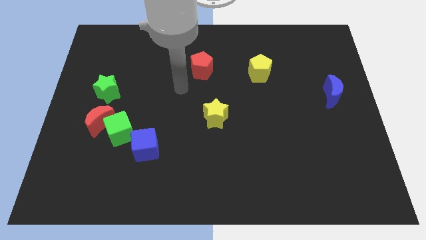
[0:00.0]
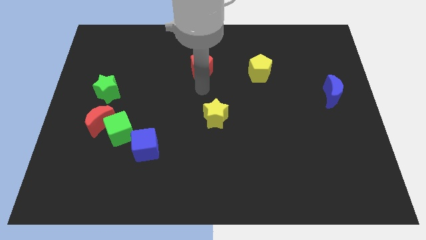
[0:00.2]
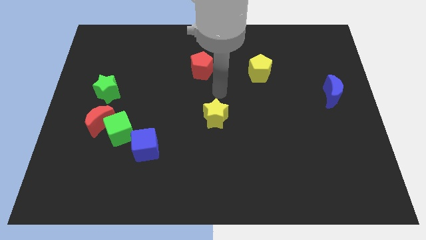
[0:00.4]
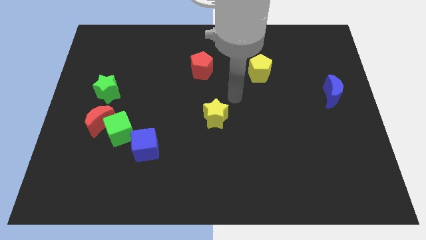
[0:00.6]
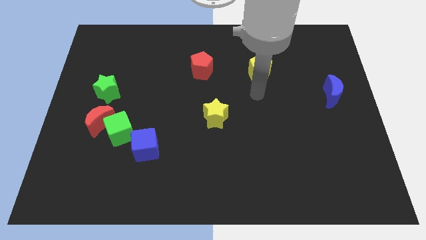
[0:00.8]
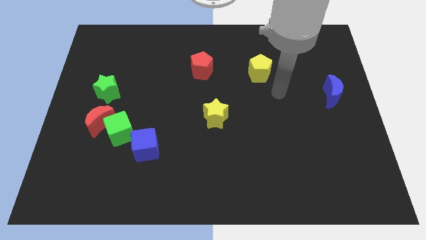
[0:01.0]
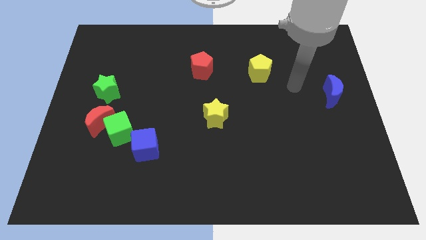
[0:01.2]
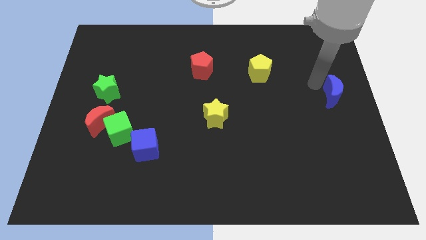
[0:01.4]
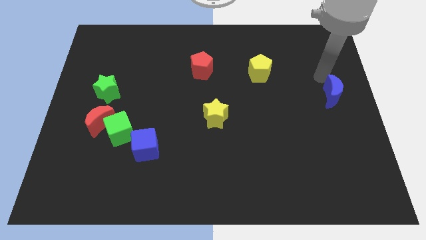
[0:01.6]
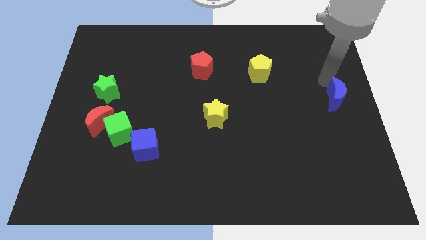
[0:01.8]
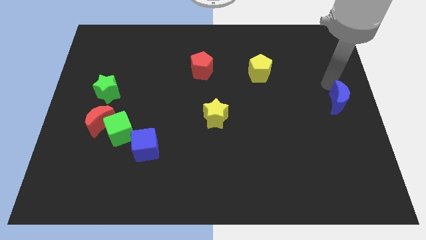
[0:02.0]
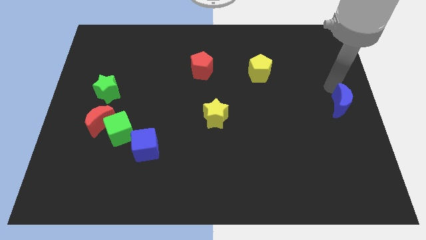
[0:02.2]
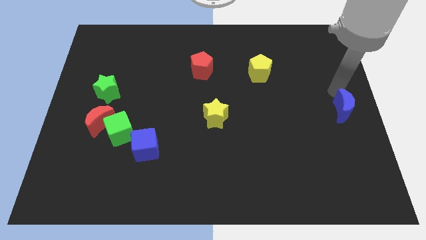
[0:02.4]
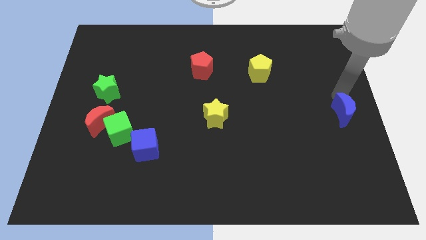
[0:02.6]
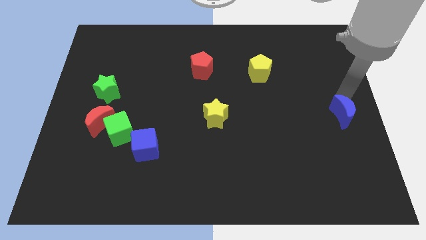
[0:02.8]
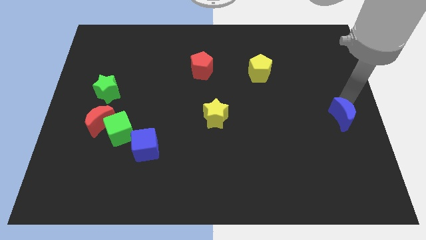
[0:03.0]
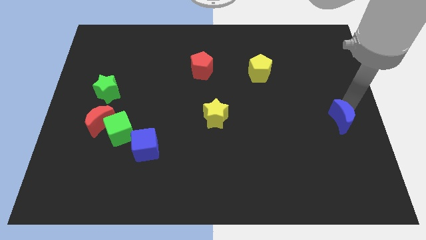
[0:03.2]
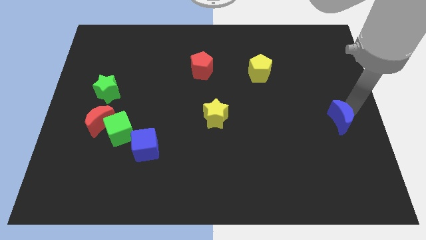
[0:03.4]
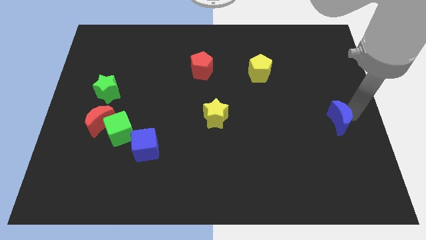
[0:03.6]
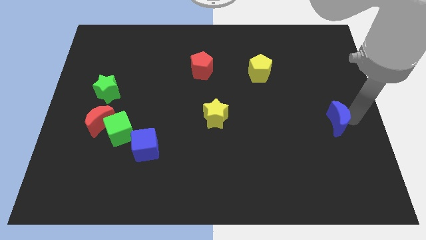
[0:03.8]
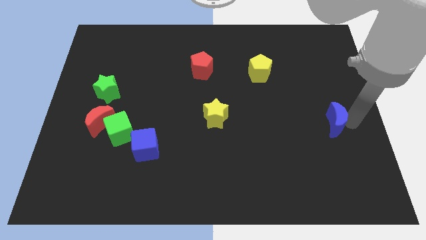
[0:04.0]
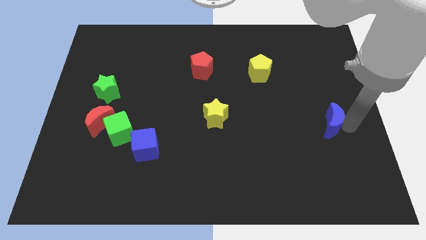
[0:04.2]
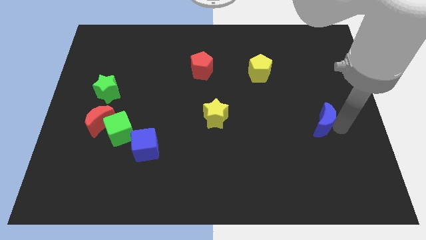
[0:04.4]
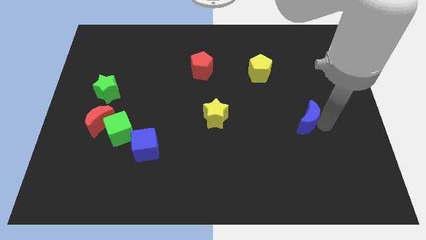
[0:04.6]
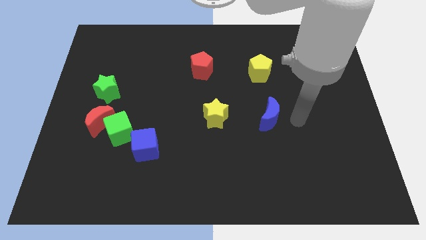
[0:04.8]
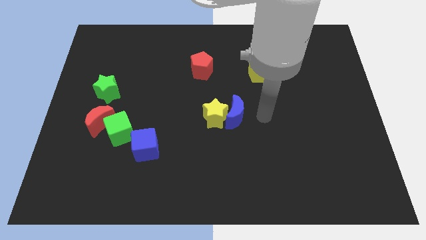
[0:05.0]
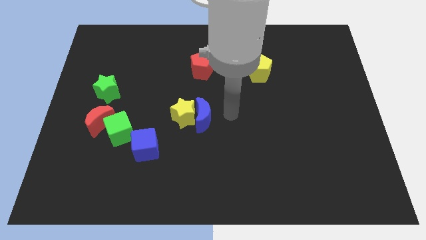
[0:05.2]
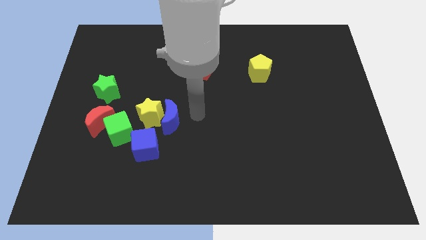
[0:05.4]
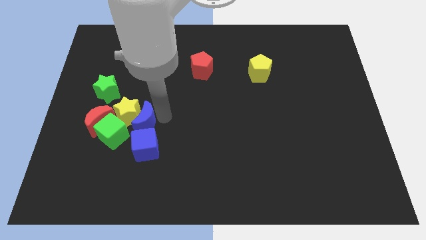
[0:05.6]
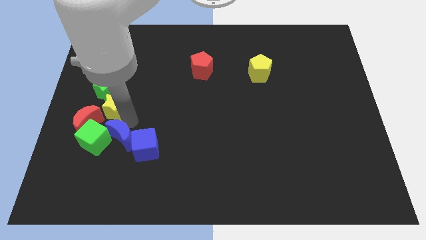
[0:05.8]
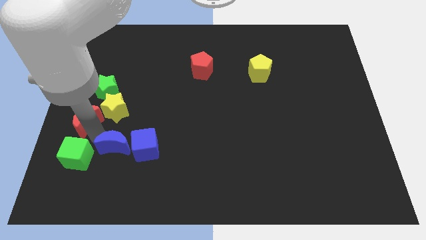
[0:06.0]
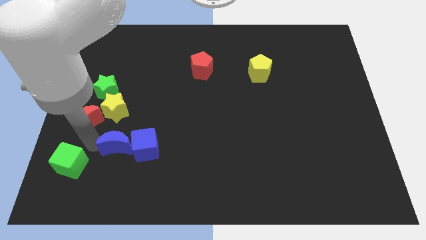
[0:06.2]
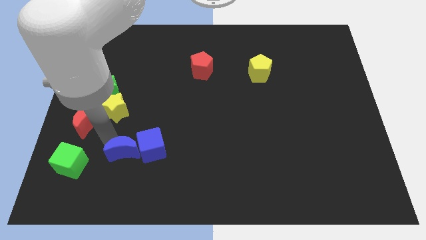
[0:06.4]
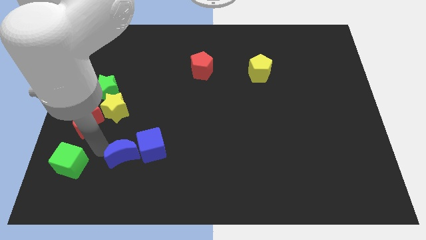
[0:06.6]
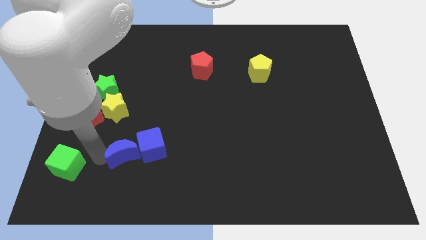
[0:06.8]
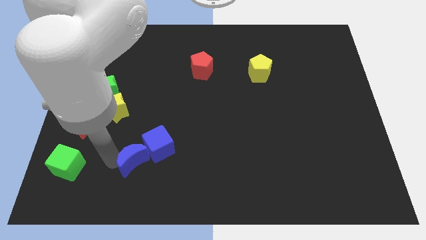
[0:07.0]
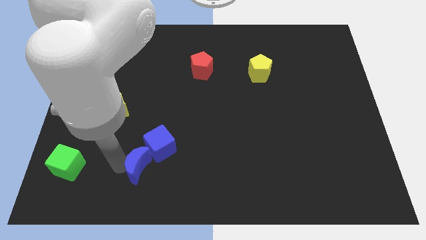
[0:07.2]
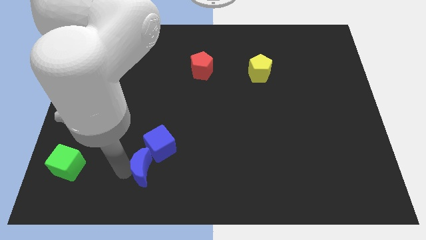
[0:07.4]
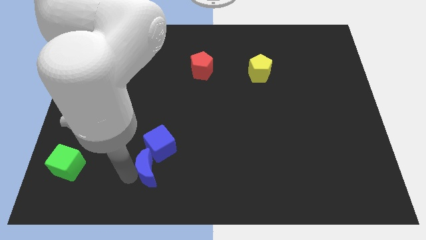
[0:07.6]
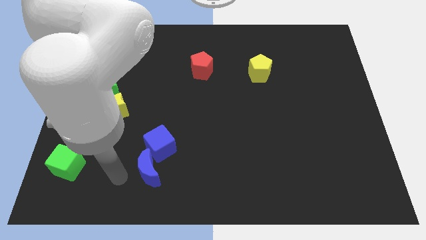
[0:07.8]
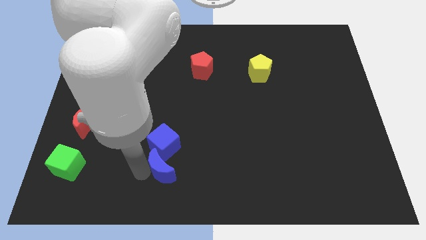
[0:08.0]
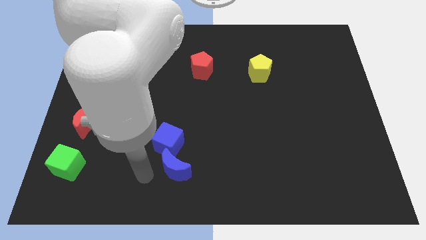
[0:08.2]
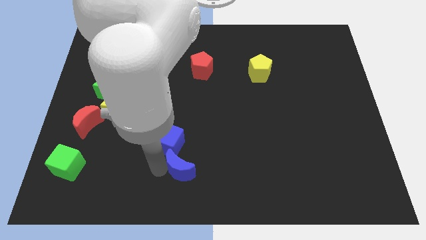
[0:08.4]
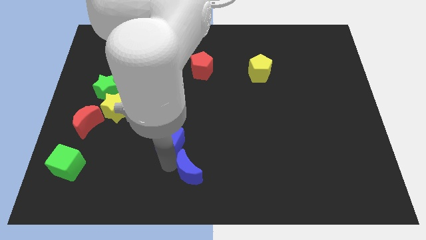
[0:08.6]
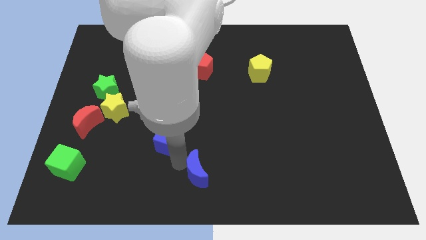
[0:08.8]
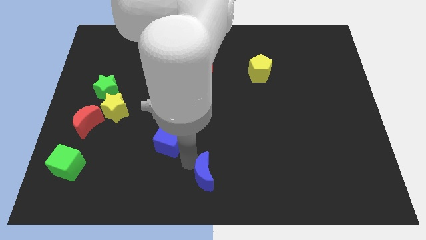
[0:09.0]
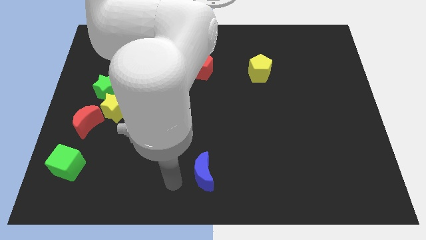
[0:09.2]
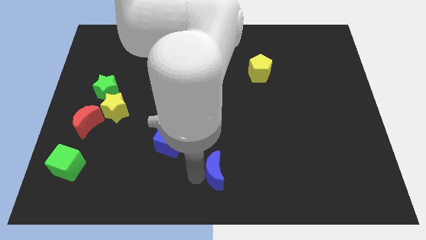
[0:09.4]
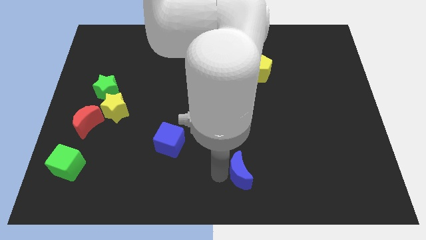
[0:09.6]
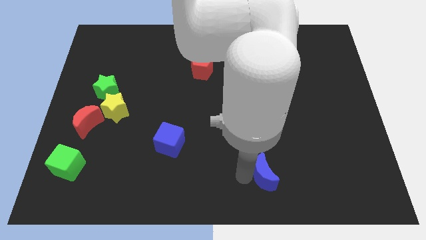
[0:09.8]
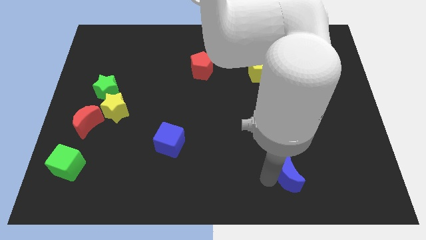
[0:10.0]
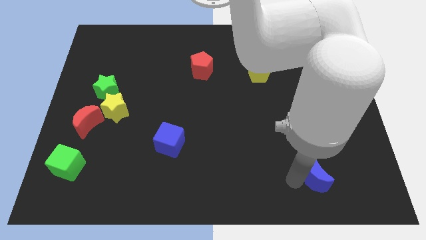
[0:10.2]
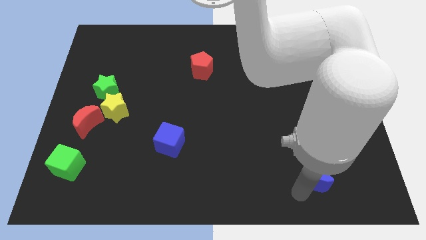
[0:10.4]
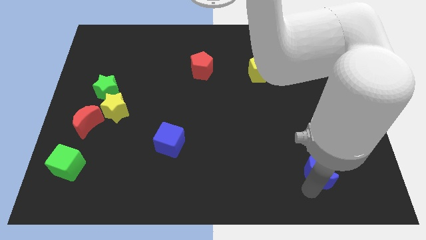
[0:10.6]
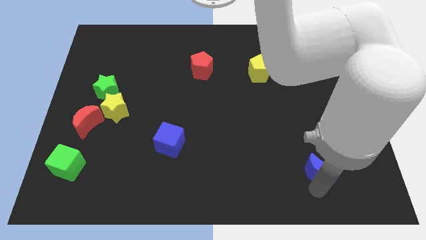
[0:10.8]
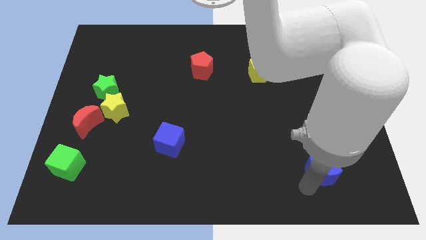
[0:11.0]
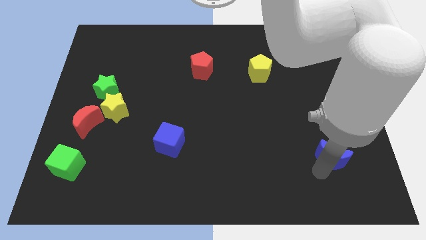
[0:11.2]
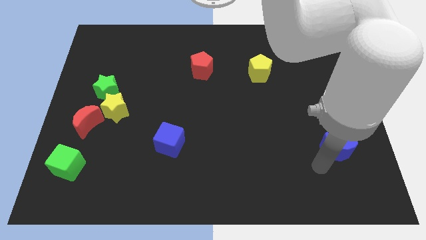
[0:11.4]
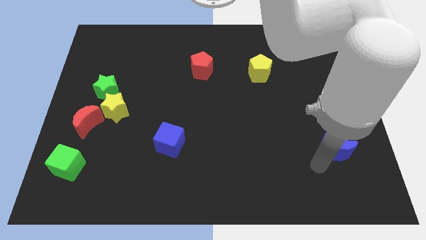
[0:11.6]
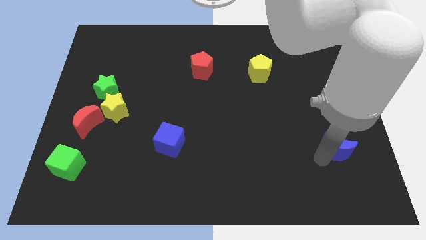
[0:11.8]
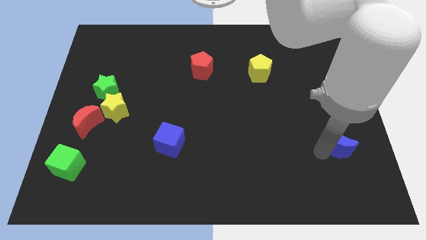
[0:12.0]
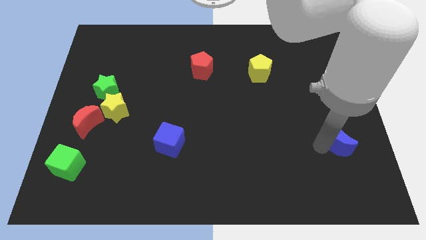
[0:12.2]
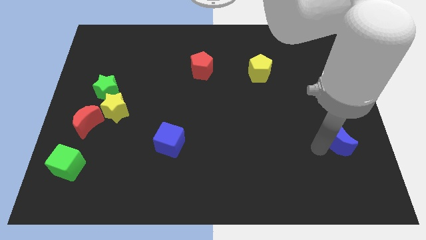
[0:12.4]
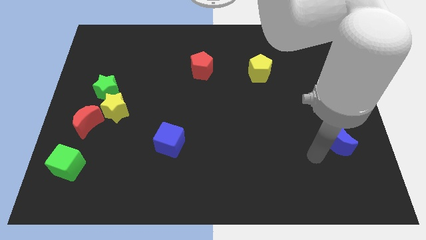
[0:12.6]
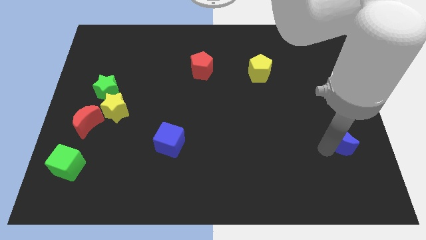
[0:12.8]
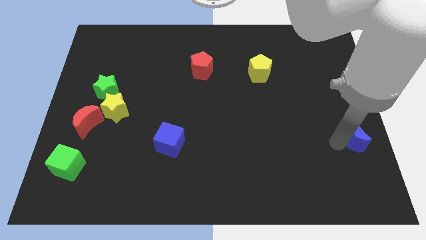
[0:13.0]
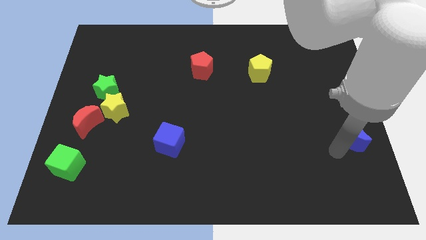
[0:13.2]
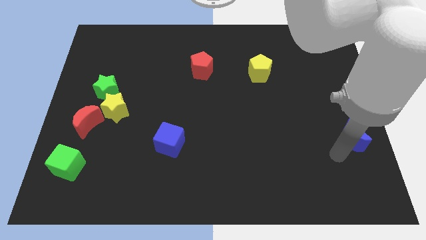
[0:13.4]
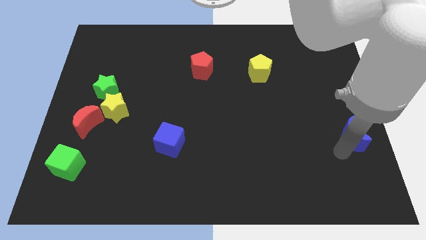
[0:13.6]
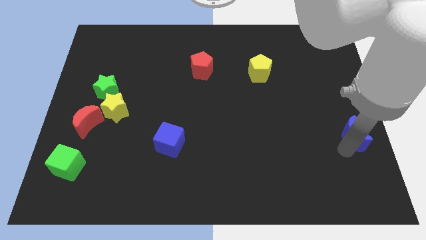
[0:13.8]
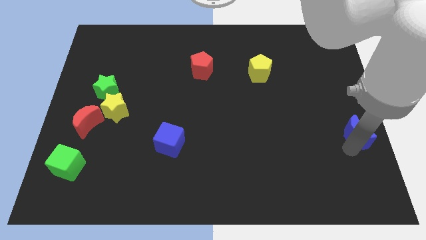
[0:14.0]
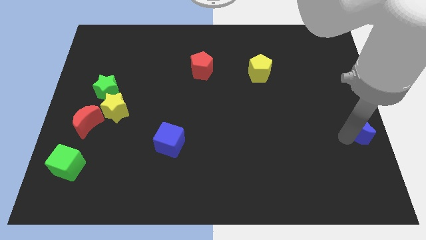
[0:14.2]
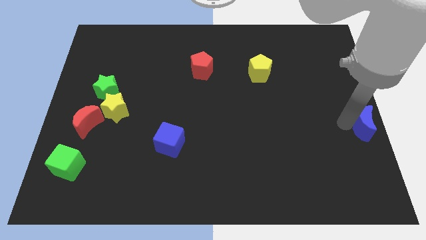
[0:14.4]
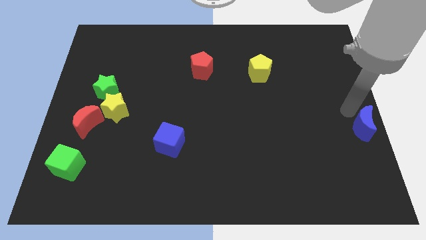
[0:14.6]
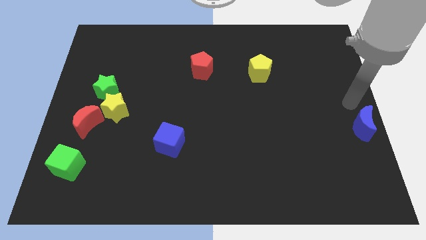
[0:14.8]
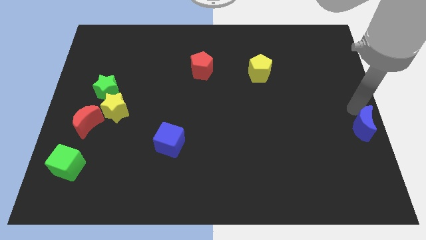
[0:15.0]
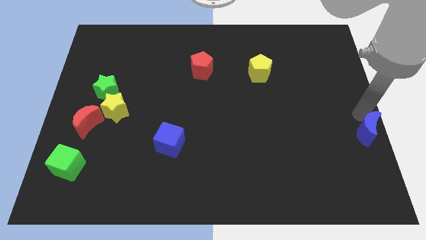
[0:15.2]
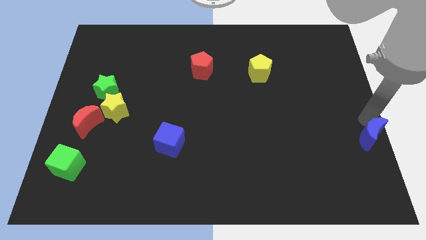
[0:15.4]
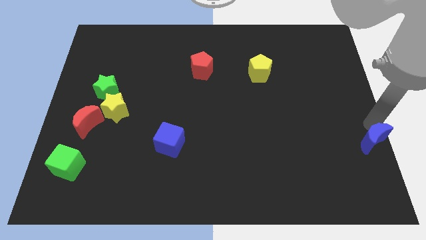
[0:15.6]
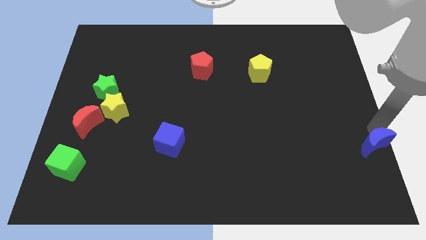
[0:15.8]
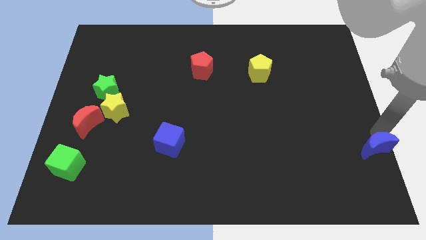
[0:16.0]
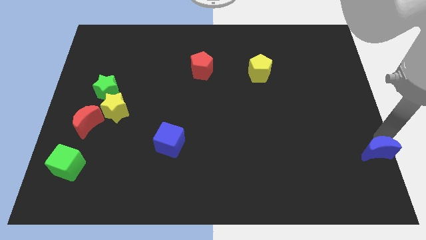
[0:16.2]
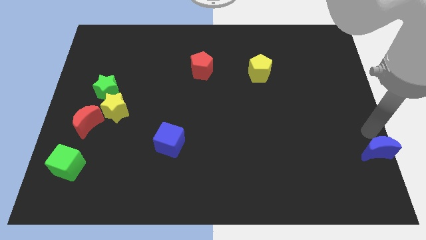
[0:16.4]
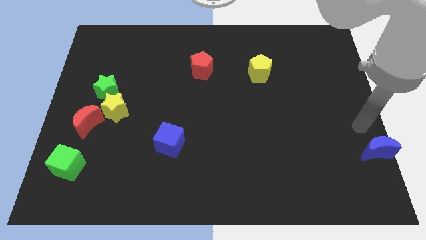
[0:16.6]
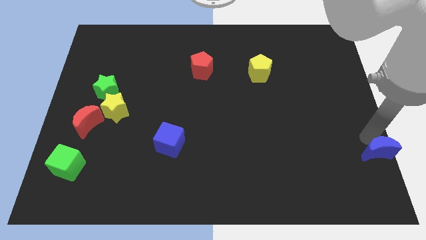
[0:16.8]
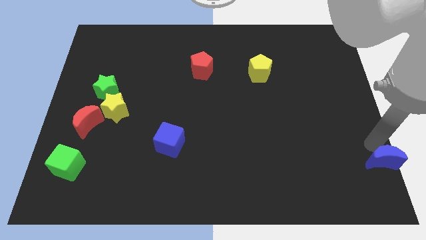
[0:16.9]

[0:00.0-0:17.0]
push the blue moon to the bottom right
